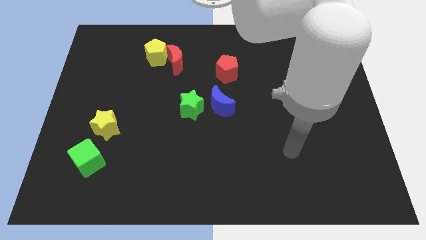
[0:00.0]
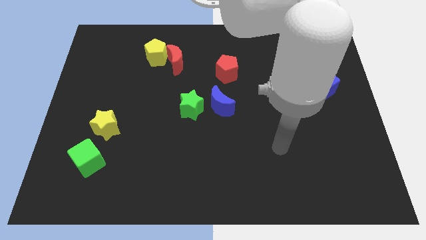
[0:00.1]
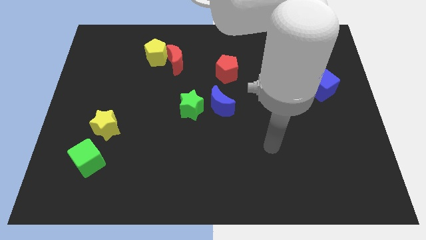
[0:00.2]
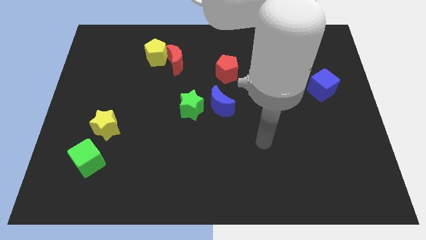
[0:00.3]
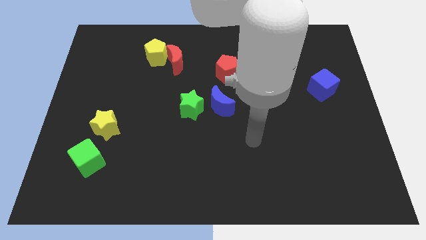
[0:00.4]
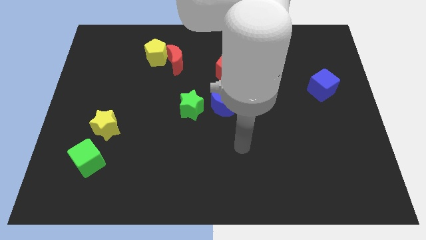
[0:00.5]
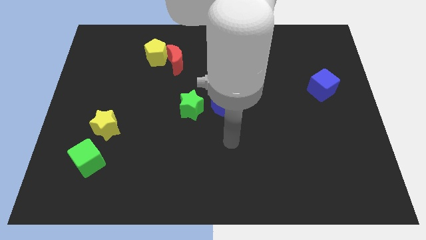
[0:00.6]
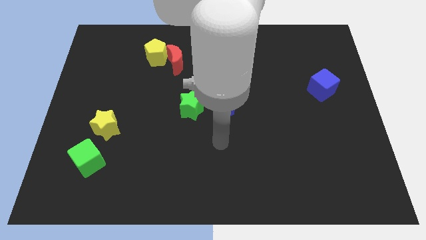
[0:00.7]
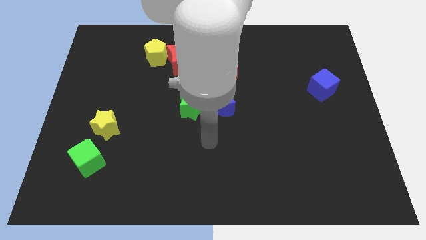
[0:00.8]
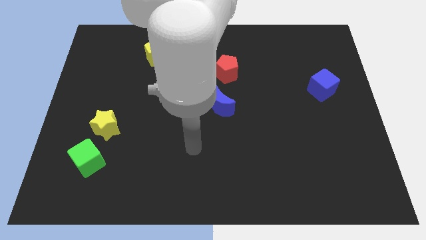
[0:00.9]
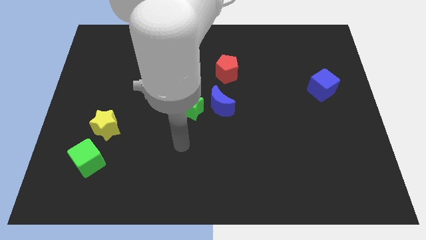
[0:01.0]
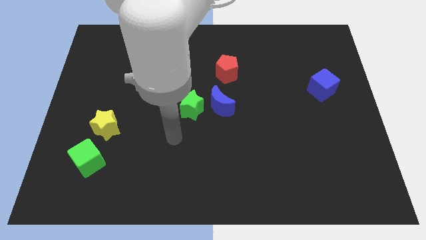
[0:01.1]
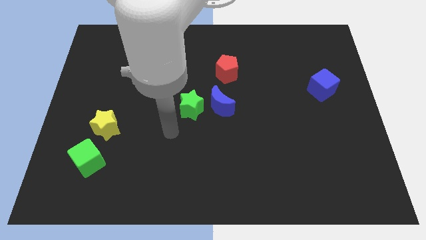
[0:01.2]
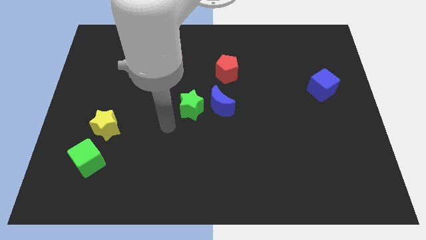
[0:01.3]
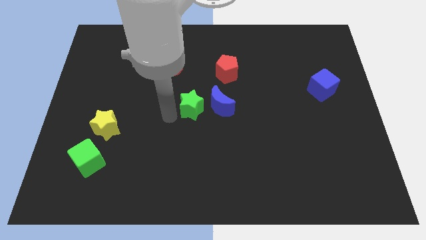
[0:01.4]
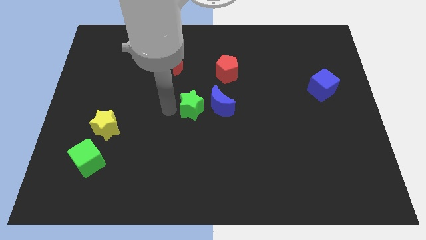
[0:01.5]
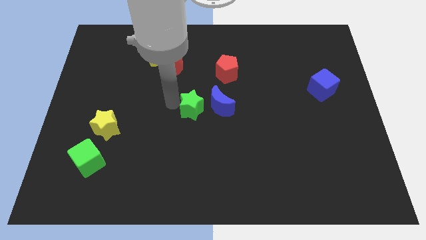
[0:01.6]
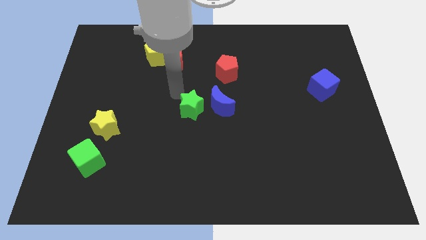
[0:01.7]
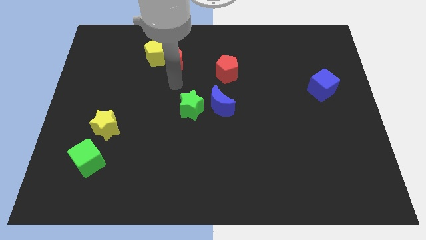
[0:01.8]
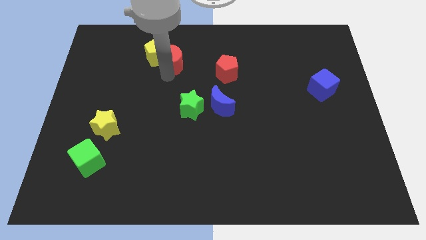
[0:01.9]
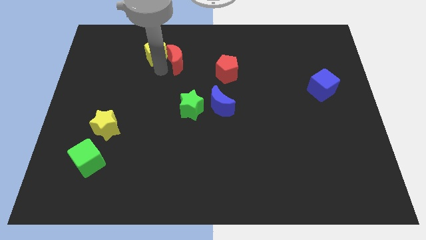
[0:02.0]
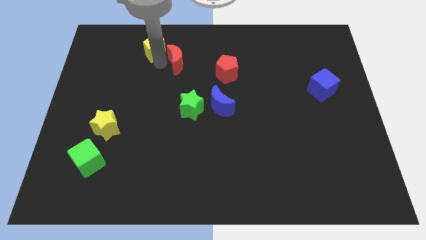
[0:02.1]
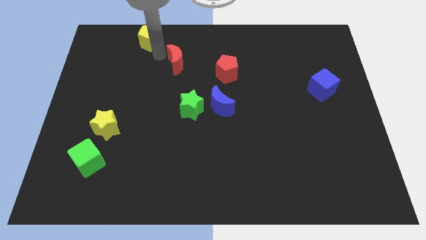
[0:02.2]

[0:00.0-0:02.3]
move the red moon away from the yellow pentagon

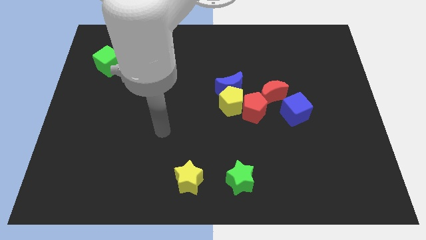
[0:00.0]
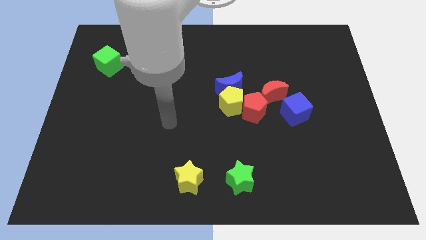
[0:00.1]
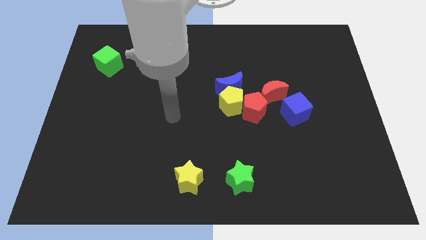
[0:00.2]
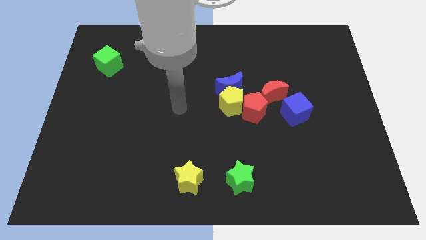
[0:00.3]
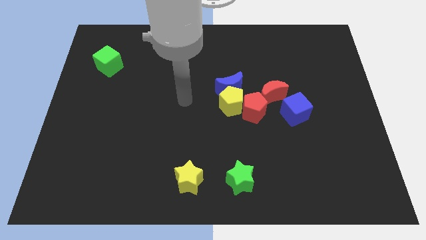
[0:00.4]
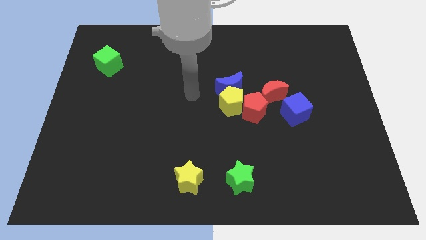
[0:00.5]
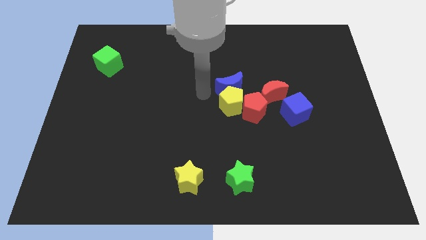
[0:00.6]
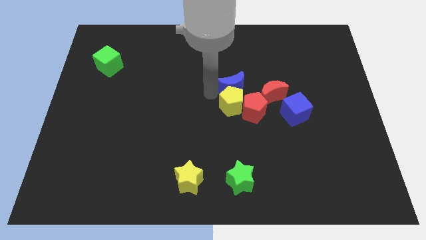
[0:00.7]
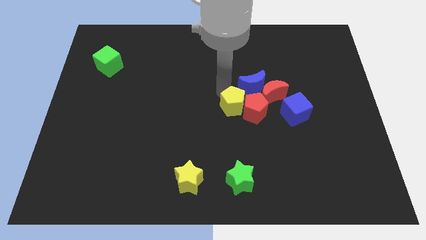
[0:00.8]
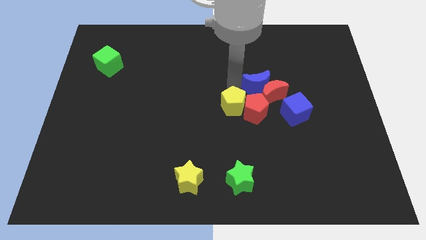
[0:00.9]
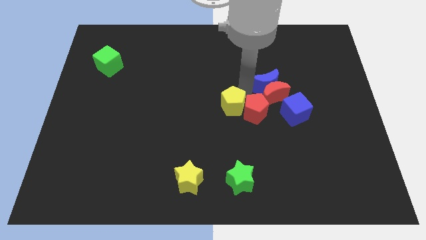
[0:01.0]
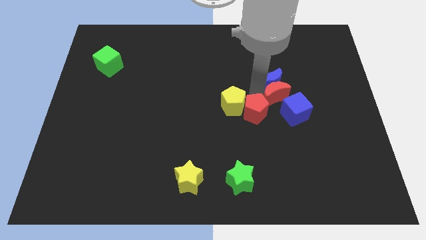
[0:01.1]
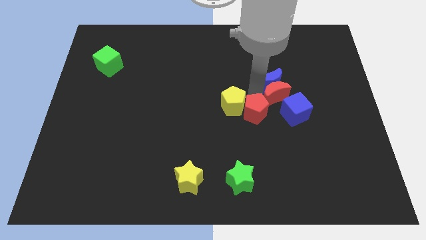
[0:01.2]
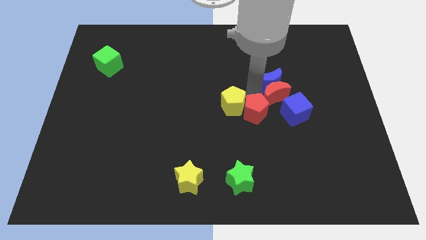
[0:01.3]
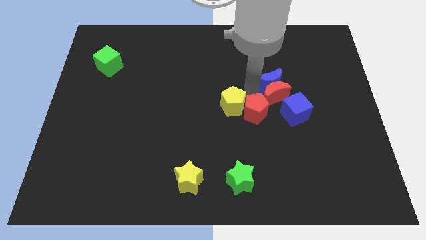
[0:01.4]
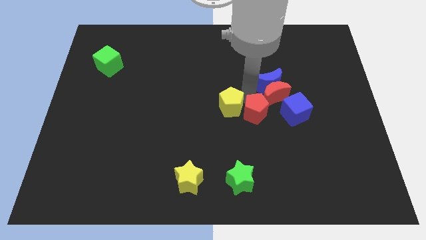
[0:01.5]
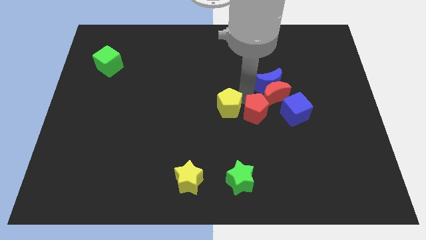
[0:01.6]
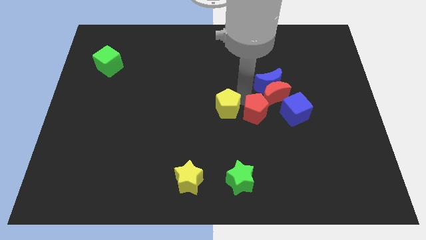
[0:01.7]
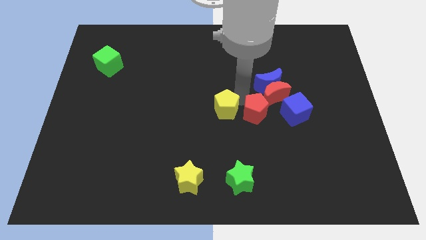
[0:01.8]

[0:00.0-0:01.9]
move the yellow pentagon away from the group of blocks

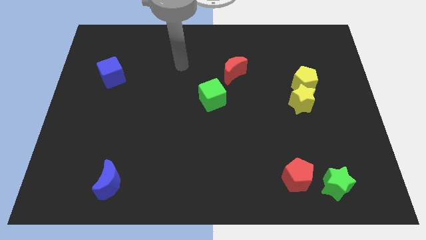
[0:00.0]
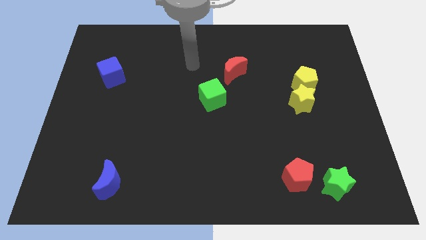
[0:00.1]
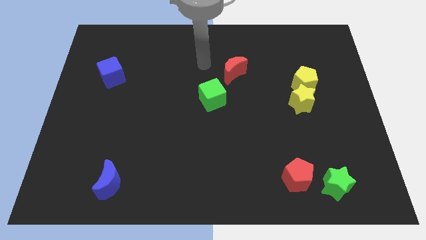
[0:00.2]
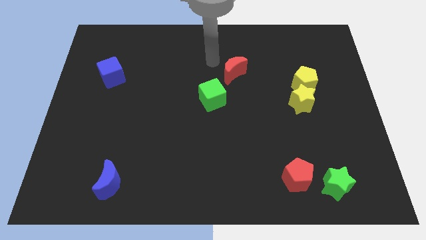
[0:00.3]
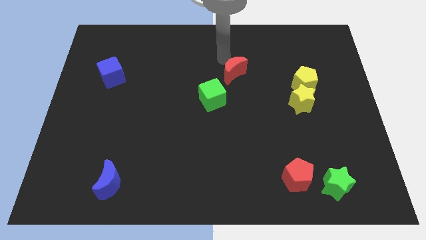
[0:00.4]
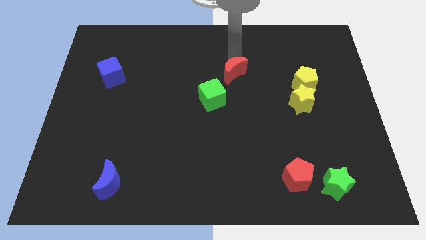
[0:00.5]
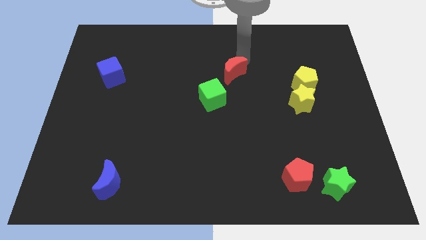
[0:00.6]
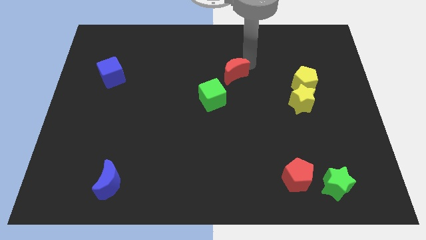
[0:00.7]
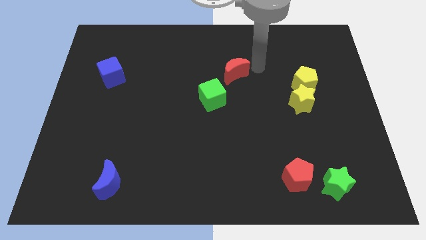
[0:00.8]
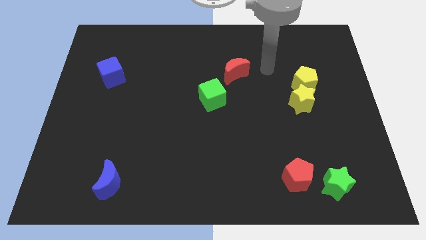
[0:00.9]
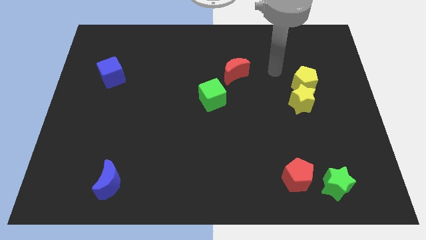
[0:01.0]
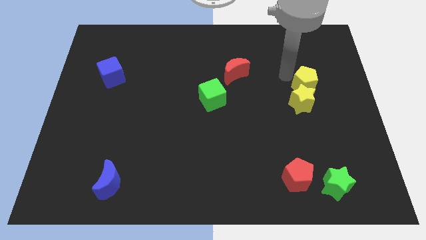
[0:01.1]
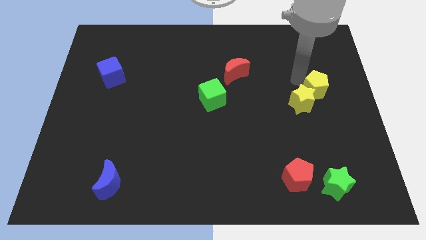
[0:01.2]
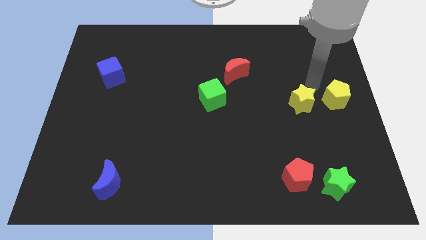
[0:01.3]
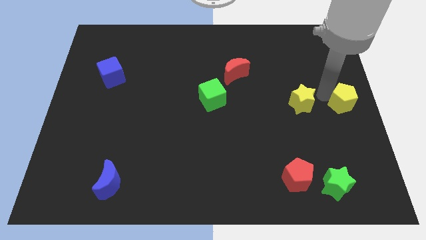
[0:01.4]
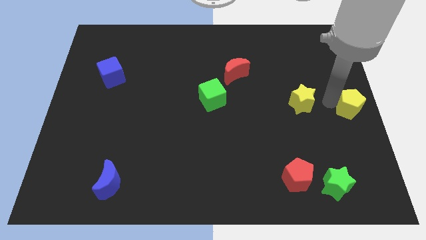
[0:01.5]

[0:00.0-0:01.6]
move the yellow star away from the yellow pentagon

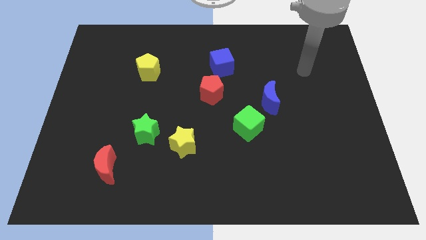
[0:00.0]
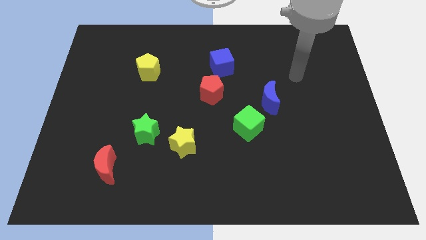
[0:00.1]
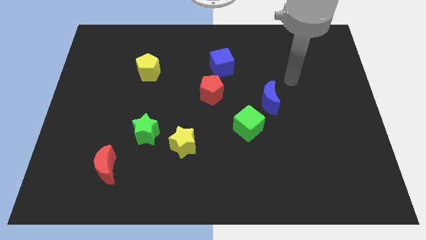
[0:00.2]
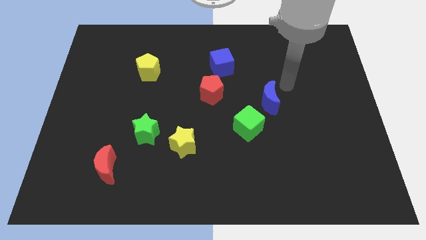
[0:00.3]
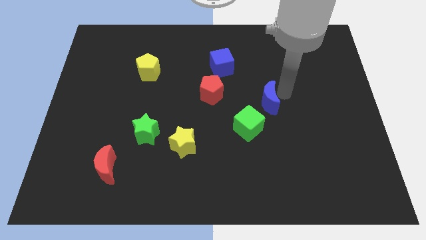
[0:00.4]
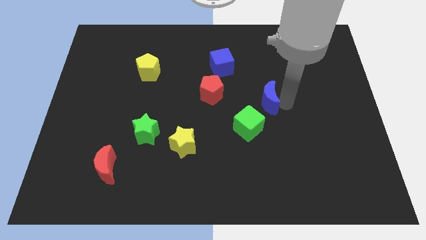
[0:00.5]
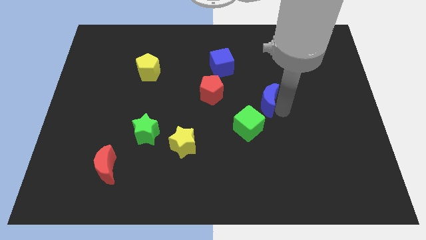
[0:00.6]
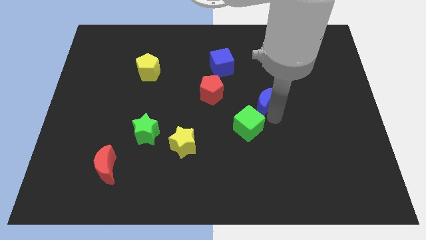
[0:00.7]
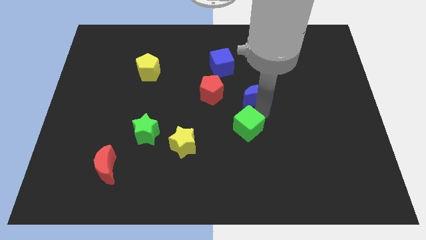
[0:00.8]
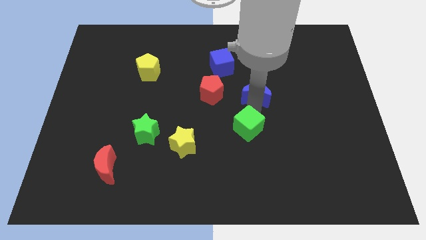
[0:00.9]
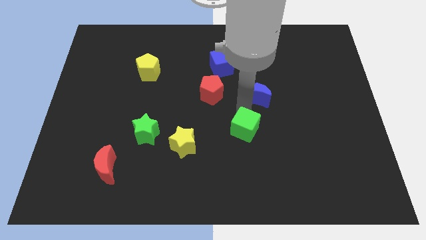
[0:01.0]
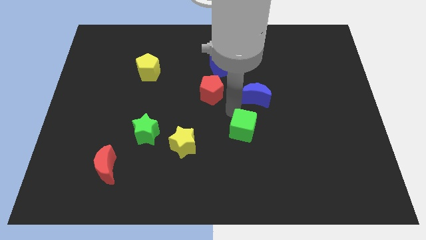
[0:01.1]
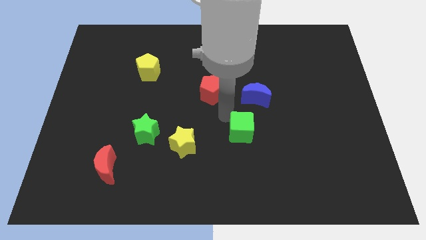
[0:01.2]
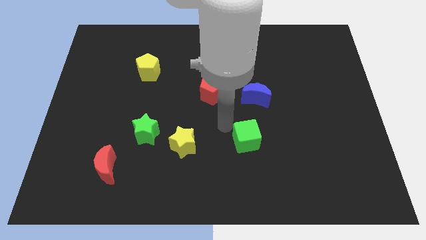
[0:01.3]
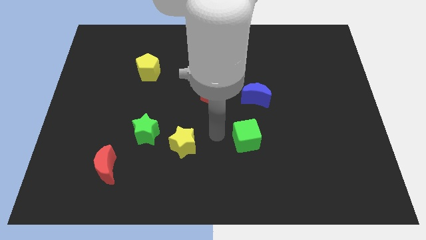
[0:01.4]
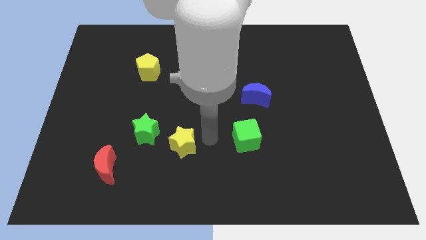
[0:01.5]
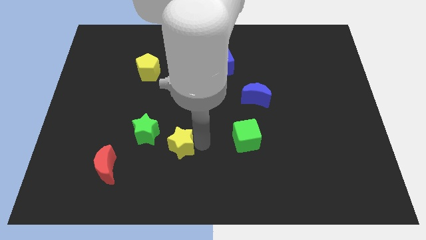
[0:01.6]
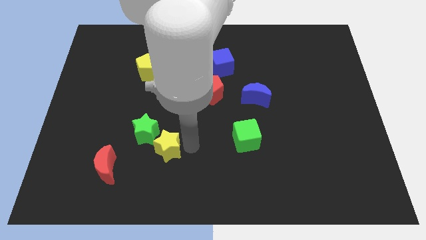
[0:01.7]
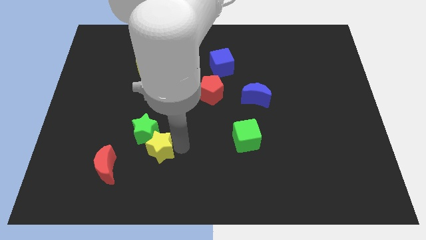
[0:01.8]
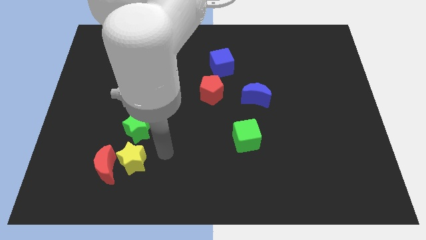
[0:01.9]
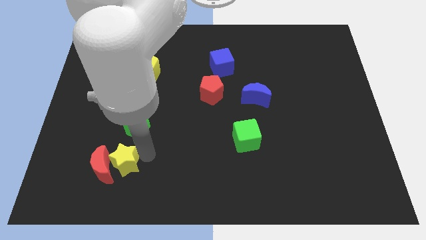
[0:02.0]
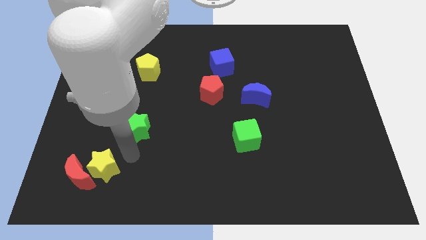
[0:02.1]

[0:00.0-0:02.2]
pull the green star apart from the yellow star

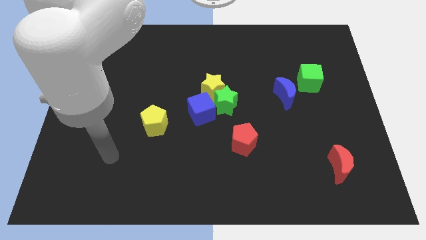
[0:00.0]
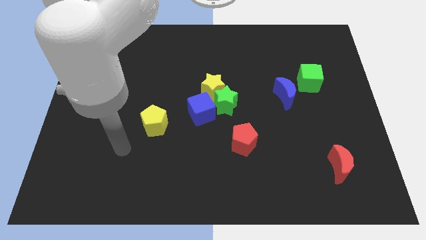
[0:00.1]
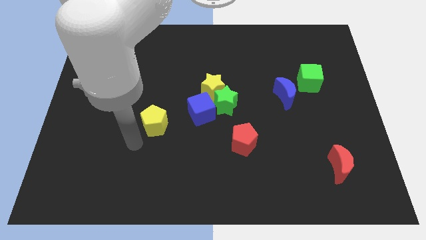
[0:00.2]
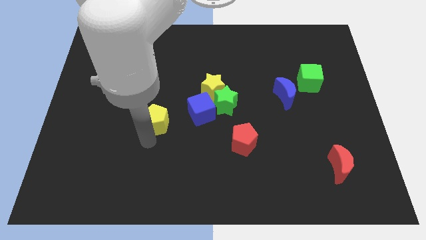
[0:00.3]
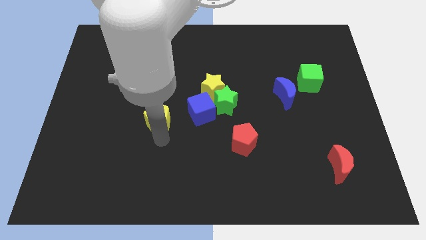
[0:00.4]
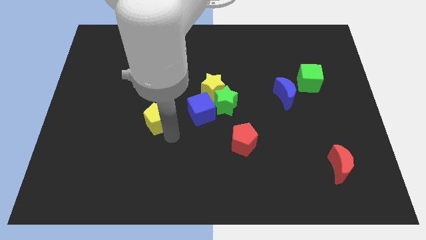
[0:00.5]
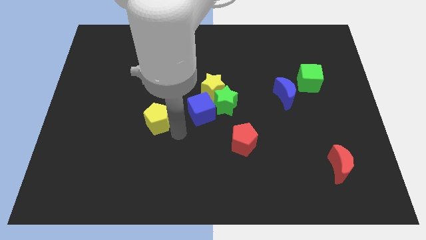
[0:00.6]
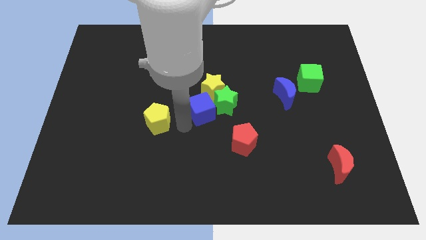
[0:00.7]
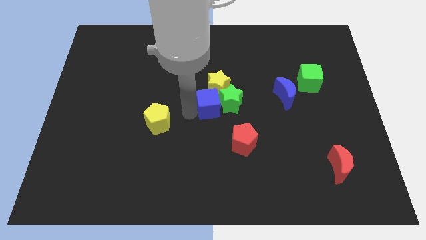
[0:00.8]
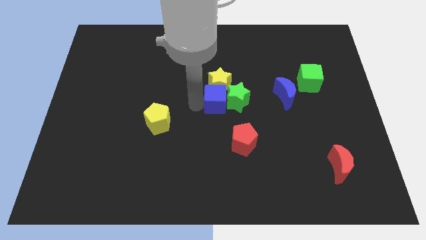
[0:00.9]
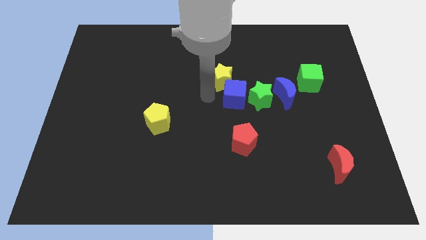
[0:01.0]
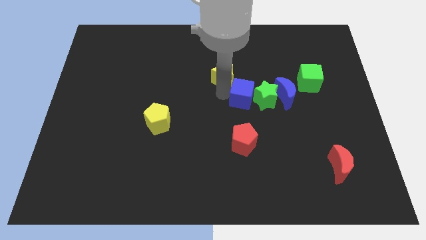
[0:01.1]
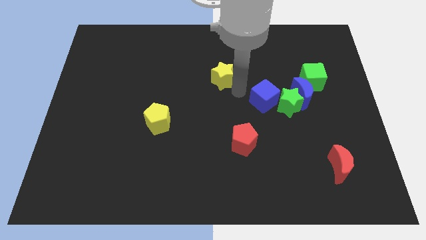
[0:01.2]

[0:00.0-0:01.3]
move the green star away from the yellow star and blue cube
